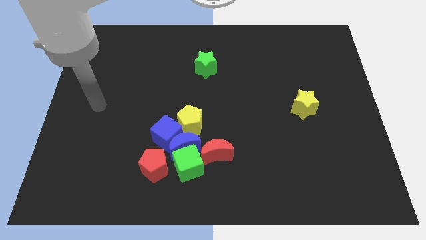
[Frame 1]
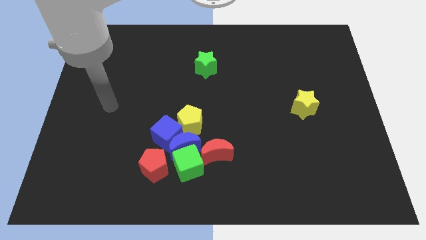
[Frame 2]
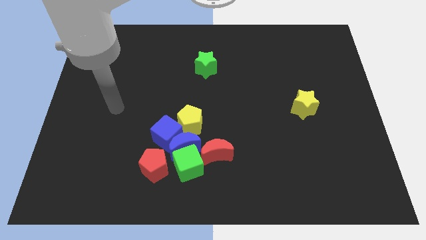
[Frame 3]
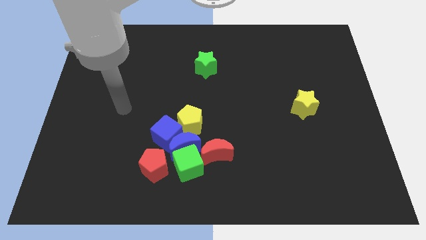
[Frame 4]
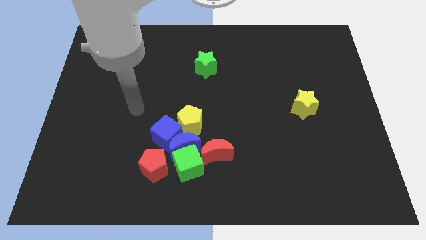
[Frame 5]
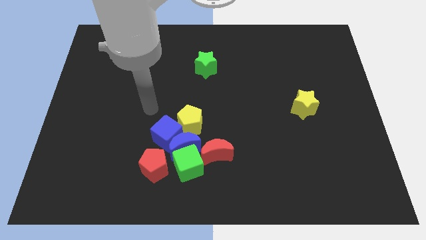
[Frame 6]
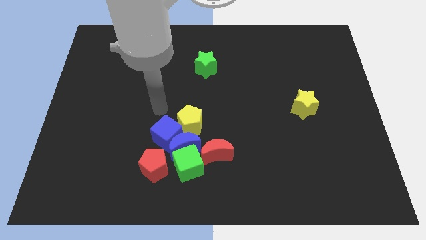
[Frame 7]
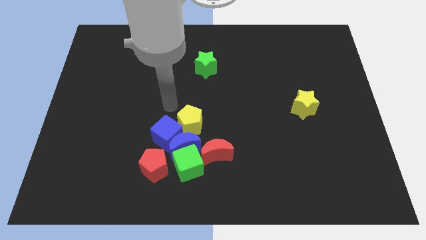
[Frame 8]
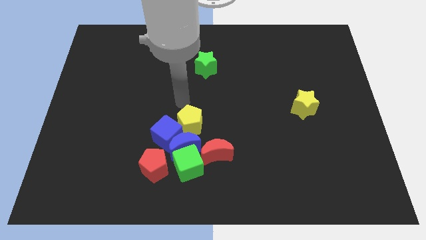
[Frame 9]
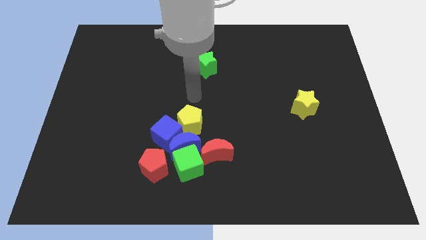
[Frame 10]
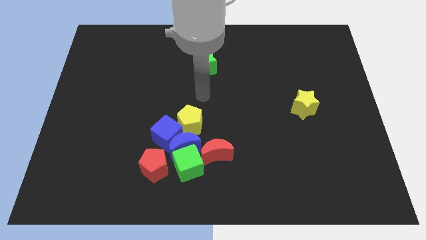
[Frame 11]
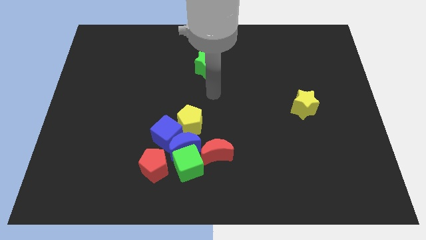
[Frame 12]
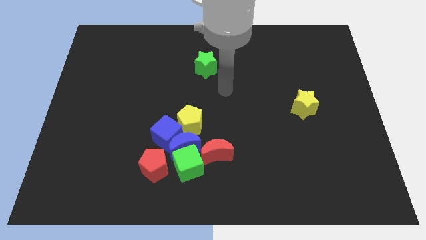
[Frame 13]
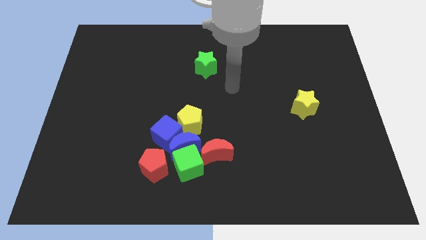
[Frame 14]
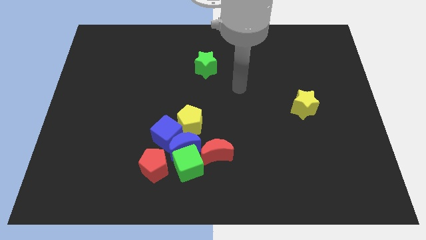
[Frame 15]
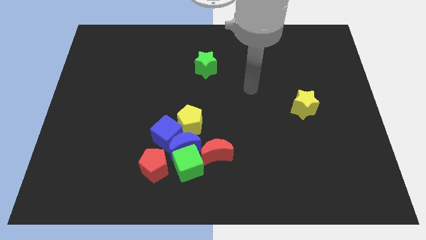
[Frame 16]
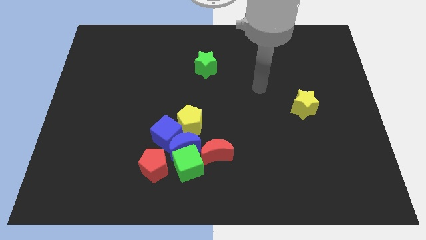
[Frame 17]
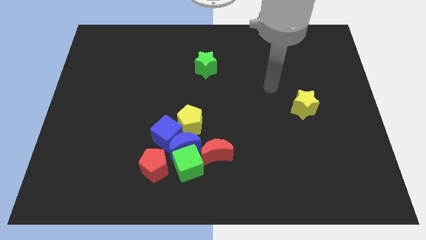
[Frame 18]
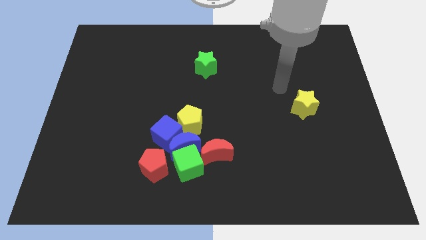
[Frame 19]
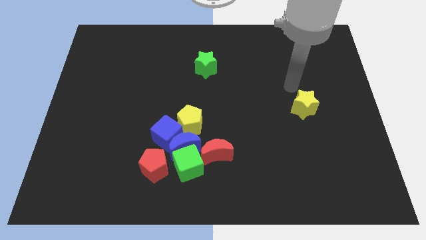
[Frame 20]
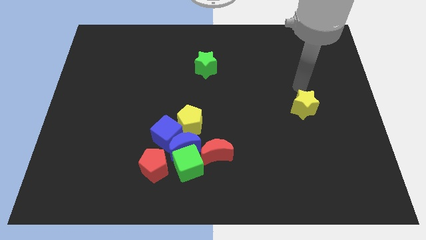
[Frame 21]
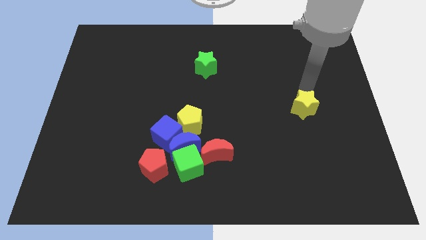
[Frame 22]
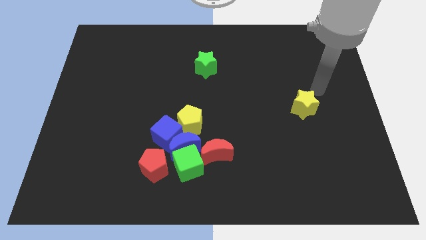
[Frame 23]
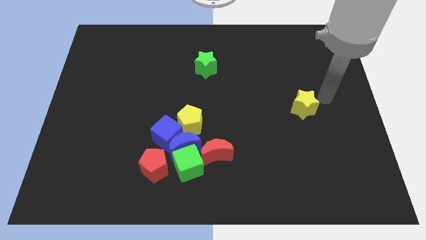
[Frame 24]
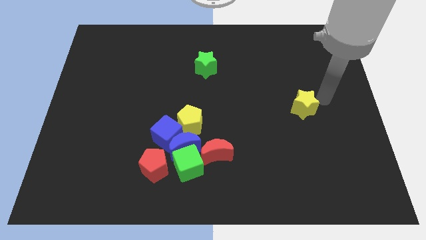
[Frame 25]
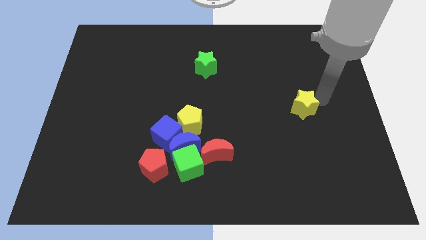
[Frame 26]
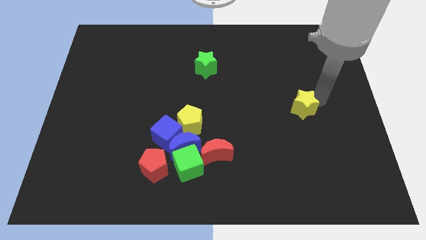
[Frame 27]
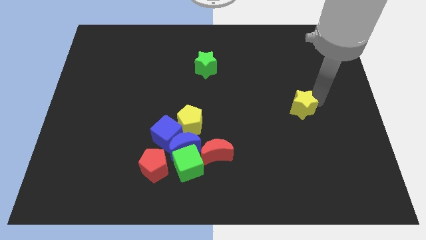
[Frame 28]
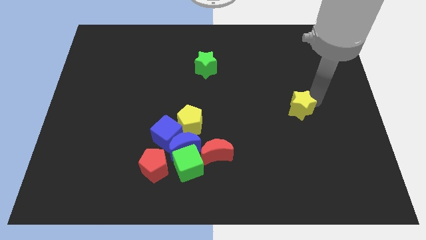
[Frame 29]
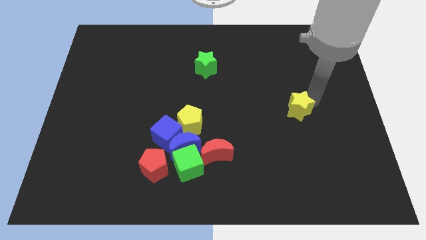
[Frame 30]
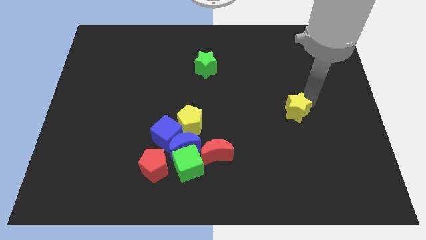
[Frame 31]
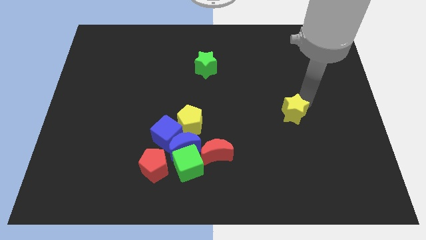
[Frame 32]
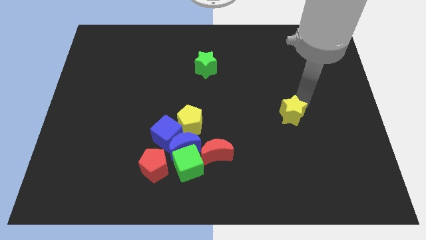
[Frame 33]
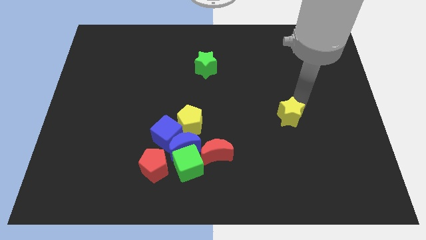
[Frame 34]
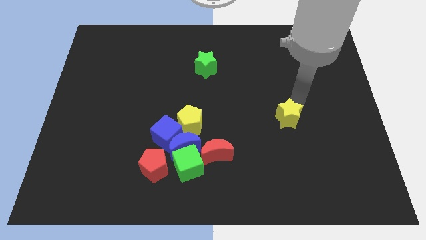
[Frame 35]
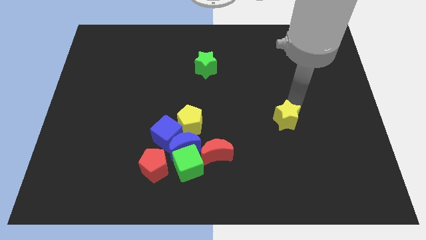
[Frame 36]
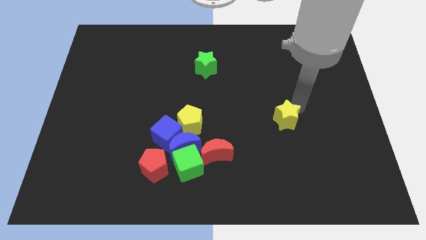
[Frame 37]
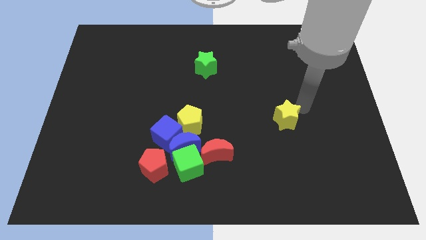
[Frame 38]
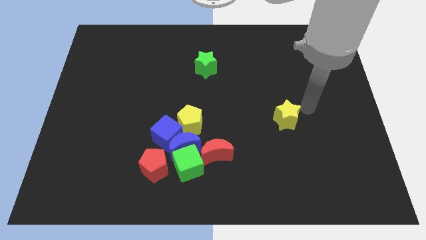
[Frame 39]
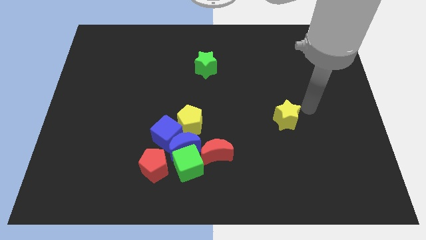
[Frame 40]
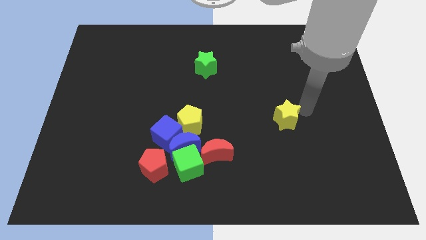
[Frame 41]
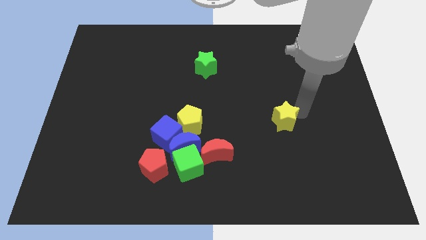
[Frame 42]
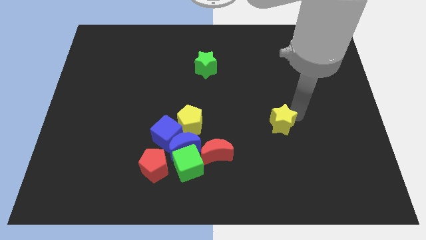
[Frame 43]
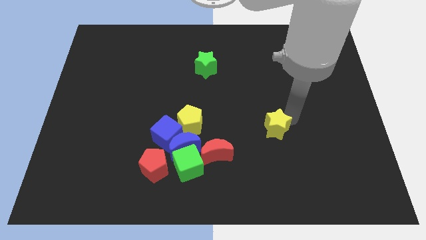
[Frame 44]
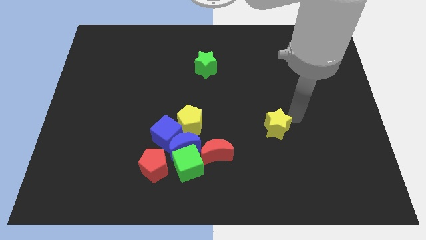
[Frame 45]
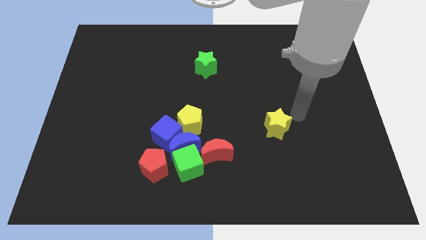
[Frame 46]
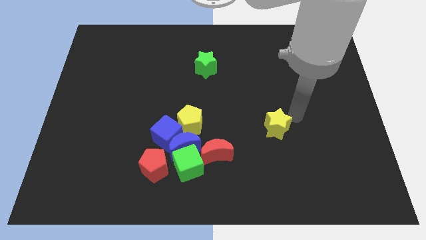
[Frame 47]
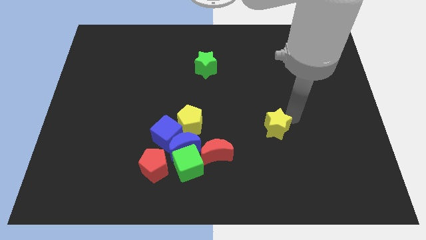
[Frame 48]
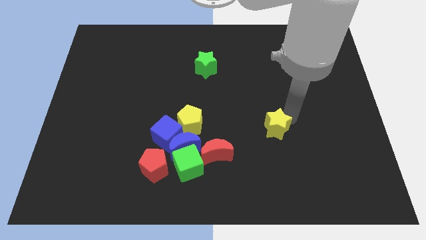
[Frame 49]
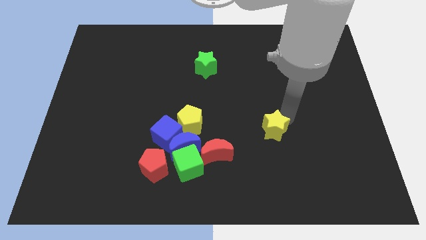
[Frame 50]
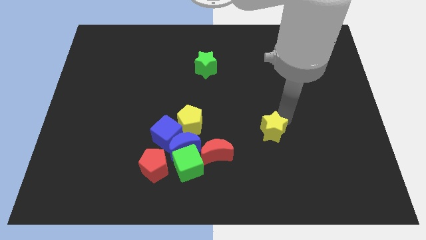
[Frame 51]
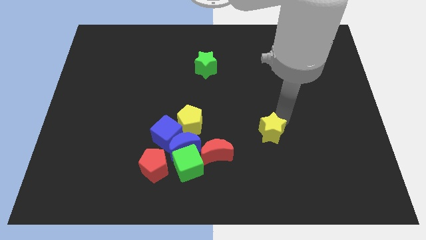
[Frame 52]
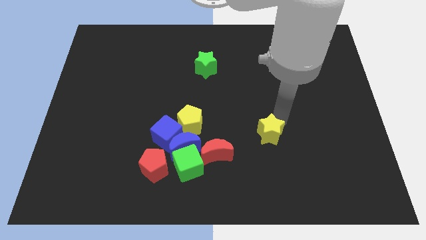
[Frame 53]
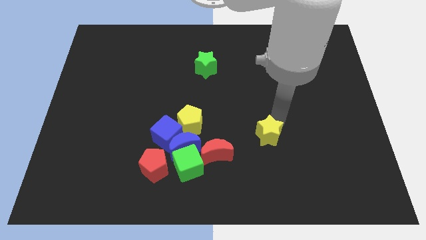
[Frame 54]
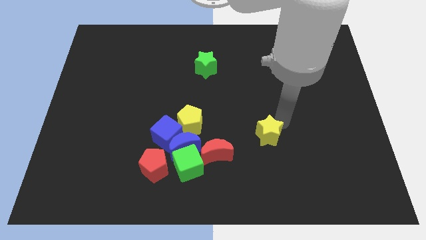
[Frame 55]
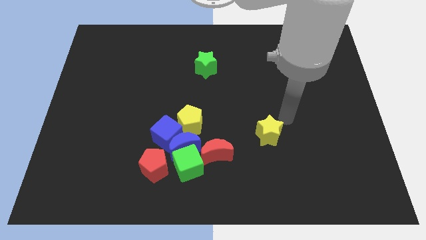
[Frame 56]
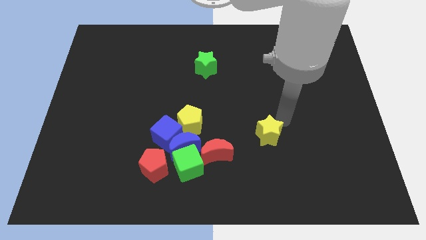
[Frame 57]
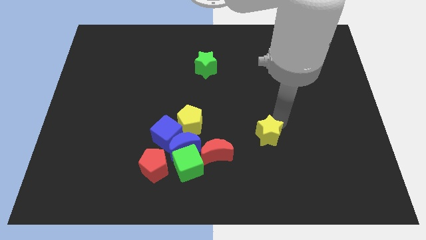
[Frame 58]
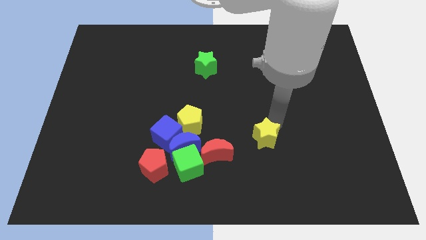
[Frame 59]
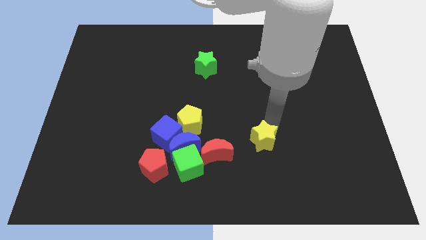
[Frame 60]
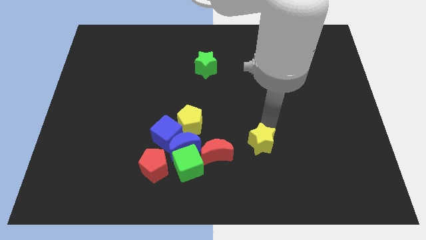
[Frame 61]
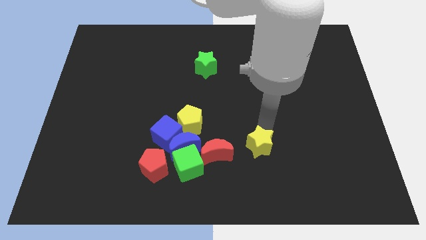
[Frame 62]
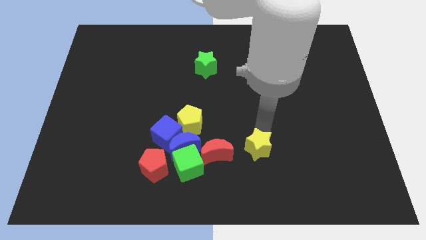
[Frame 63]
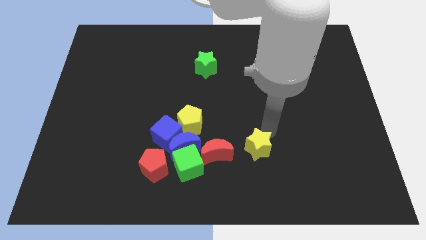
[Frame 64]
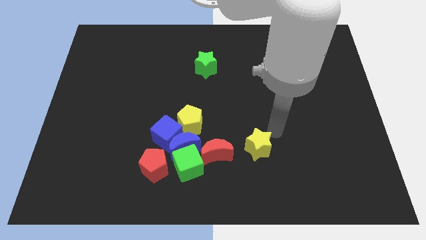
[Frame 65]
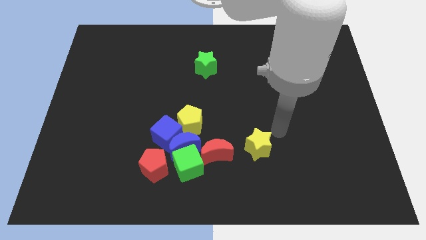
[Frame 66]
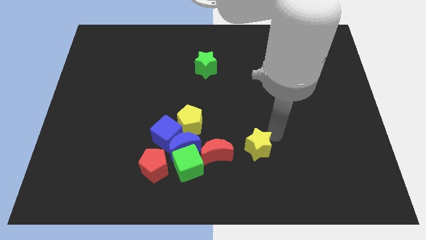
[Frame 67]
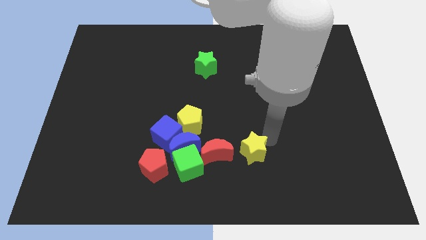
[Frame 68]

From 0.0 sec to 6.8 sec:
move the yellow star to the right of the green cube

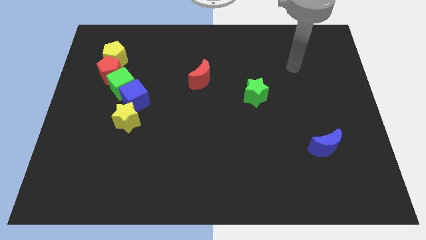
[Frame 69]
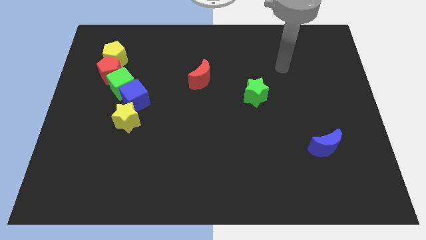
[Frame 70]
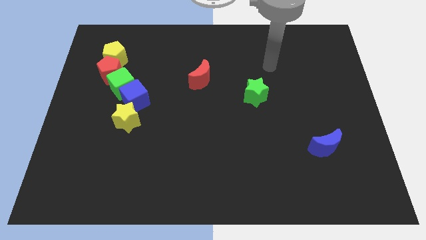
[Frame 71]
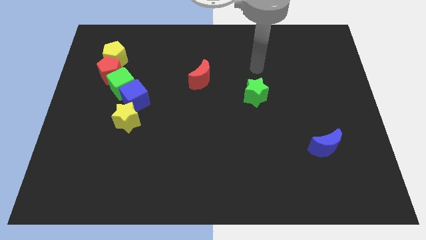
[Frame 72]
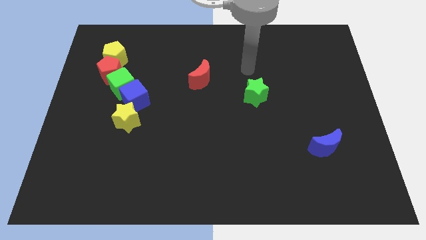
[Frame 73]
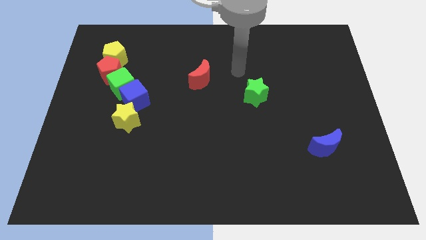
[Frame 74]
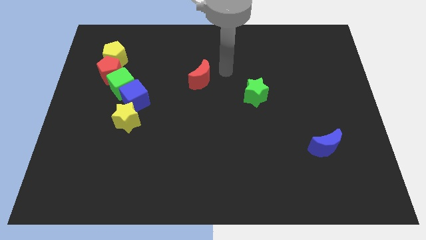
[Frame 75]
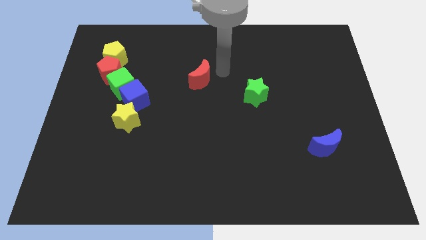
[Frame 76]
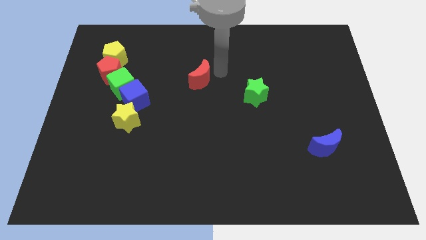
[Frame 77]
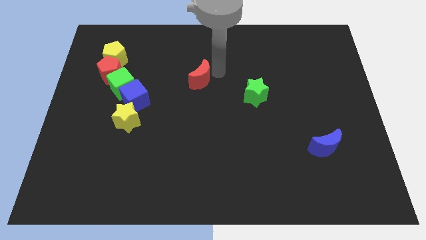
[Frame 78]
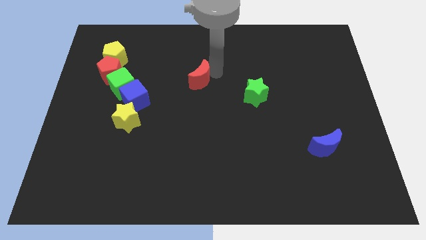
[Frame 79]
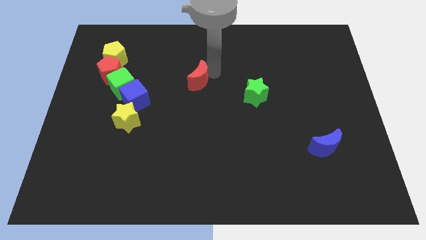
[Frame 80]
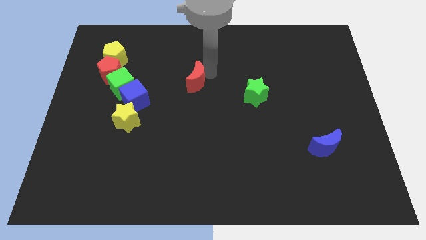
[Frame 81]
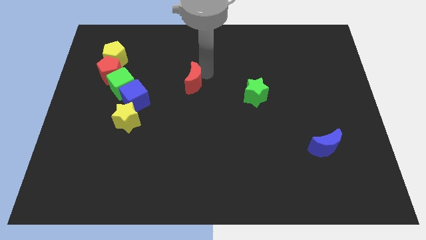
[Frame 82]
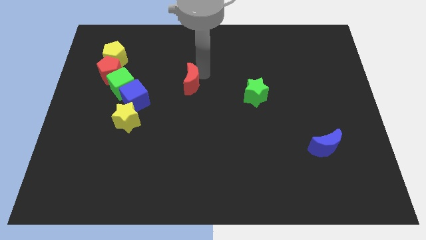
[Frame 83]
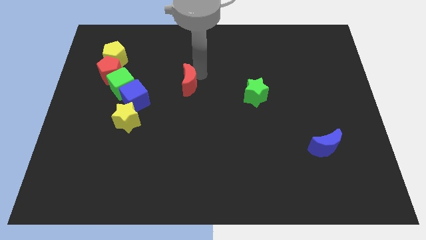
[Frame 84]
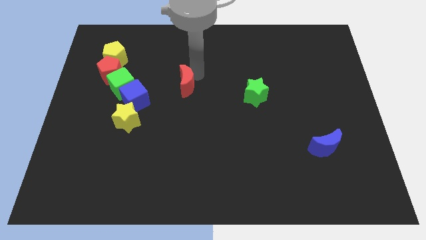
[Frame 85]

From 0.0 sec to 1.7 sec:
slide the red moon right of the green cube
